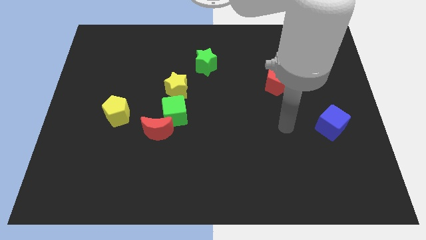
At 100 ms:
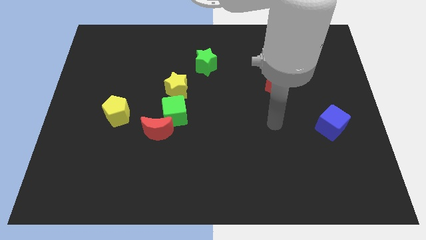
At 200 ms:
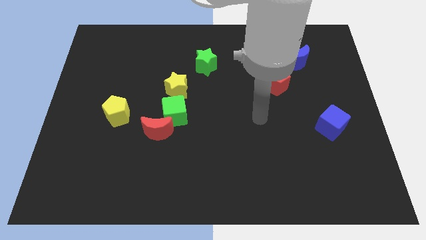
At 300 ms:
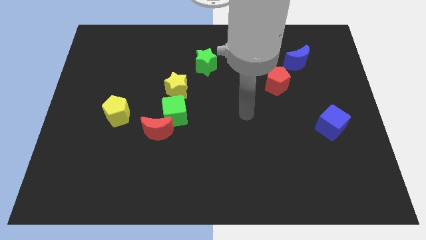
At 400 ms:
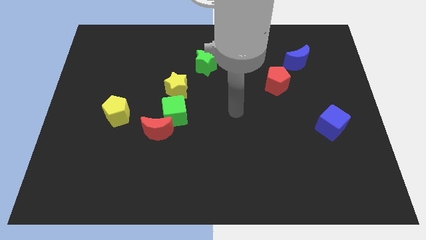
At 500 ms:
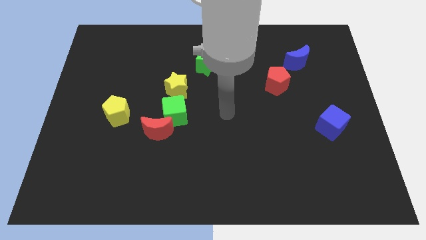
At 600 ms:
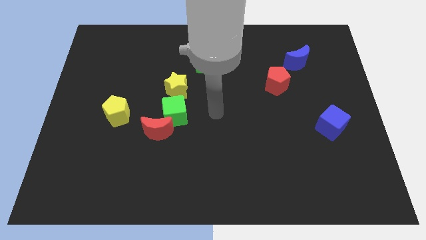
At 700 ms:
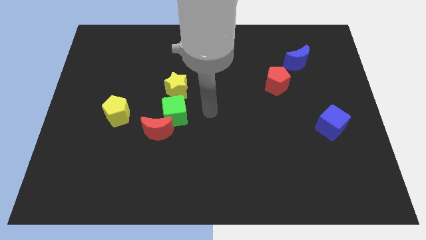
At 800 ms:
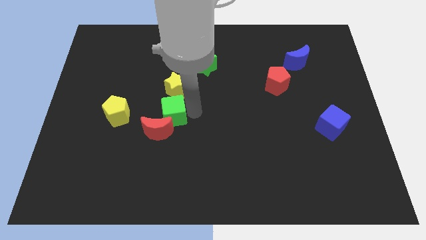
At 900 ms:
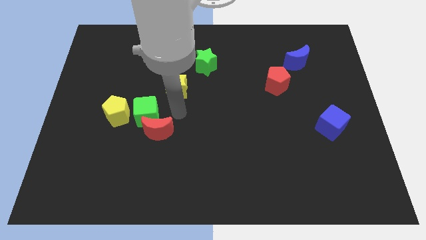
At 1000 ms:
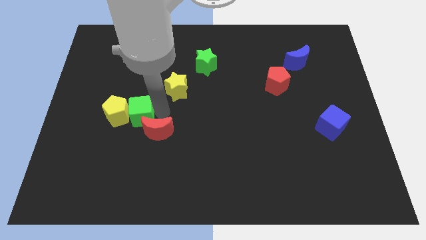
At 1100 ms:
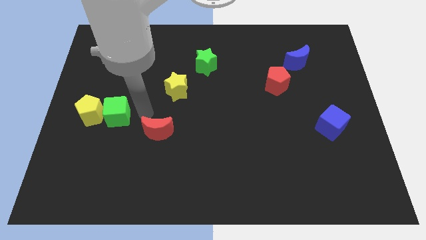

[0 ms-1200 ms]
pull the red moon apart from the green cube

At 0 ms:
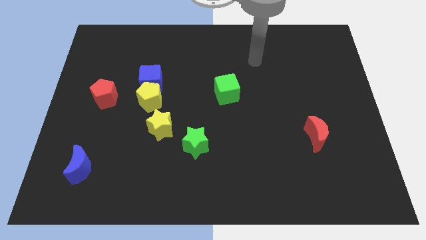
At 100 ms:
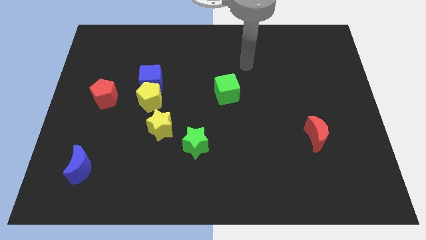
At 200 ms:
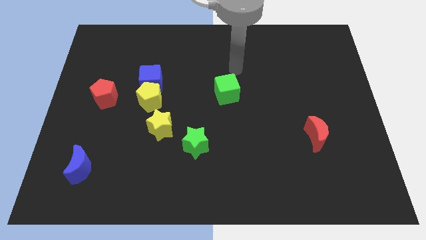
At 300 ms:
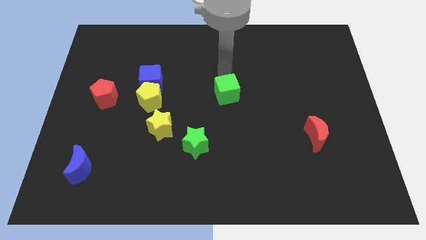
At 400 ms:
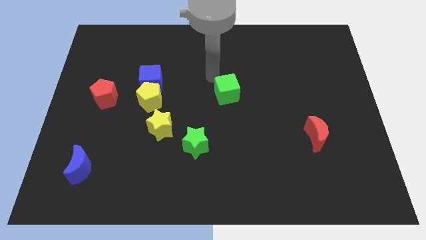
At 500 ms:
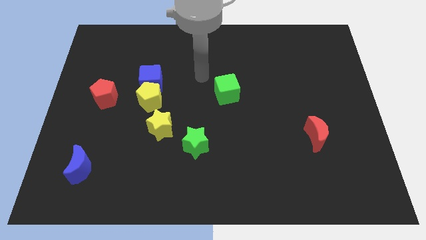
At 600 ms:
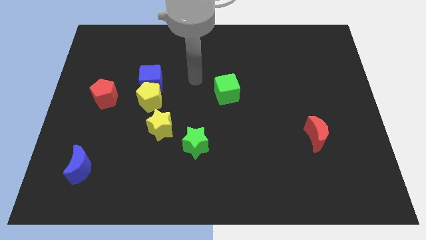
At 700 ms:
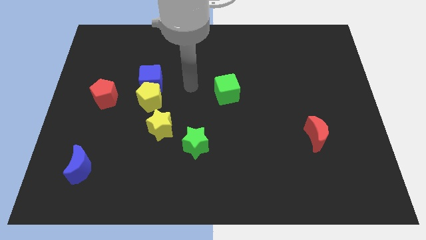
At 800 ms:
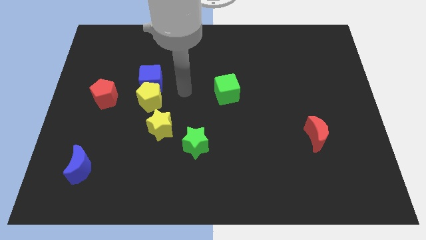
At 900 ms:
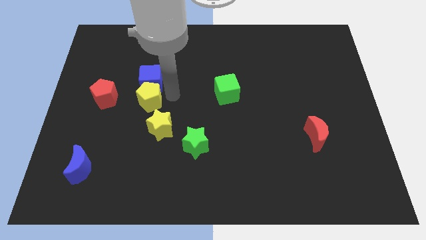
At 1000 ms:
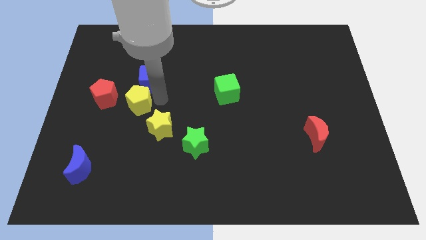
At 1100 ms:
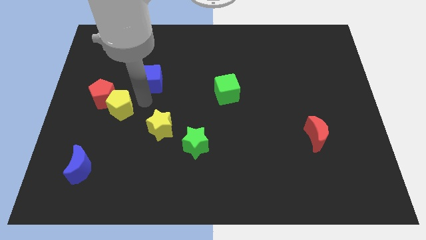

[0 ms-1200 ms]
separate the blue cube from the yellow pentagon

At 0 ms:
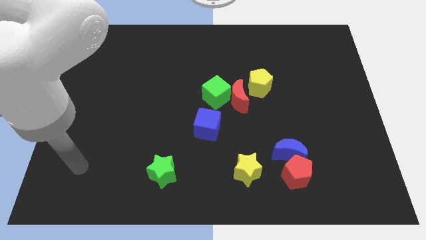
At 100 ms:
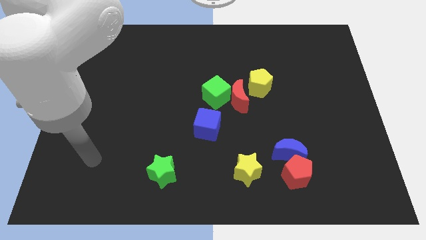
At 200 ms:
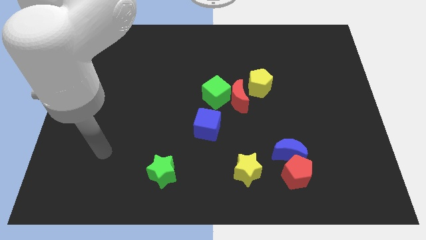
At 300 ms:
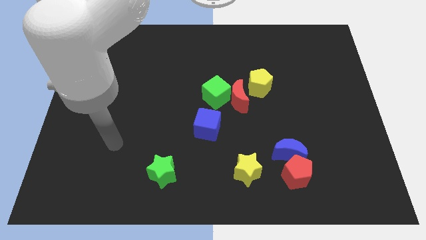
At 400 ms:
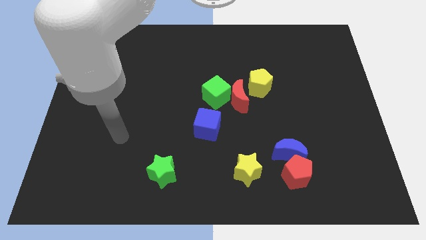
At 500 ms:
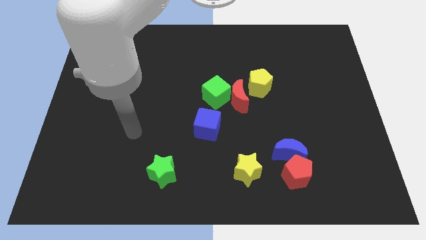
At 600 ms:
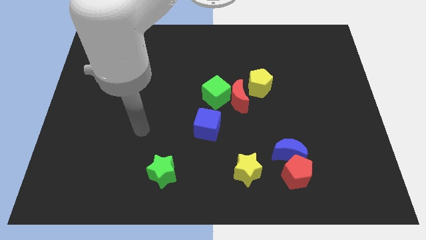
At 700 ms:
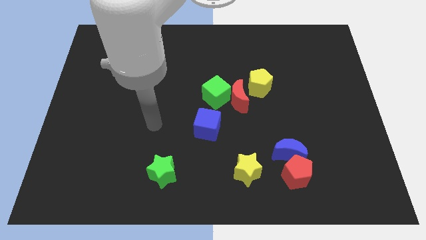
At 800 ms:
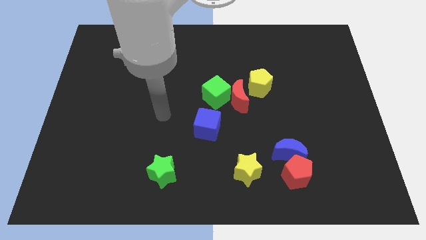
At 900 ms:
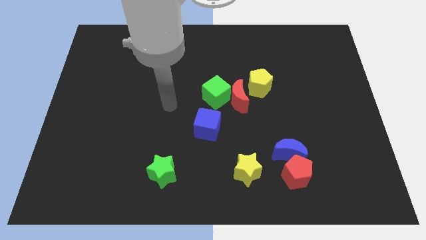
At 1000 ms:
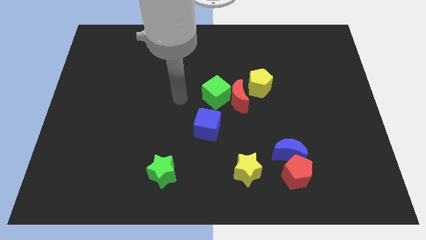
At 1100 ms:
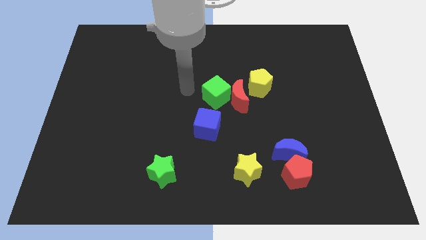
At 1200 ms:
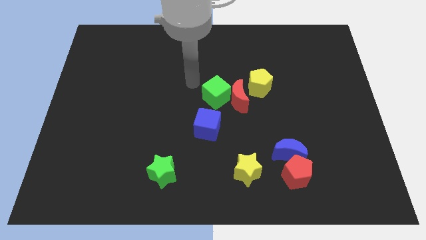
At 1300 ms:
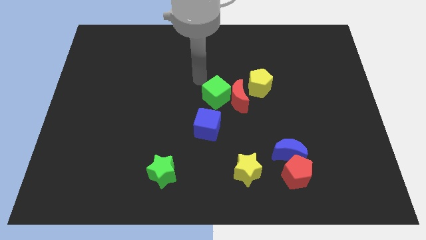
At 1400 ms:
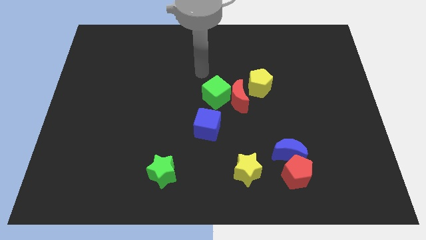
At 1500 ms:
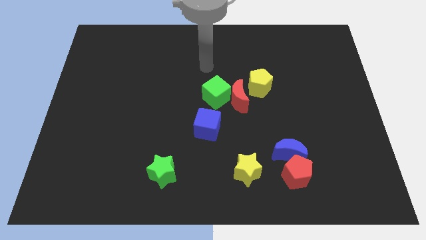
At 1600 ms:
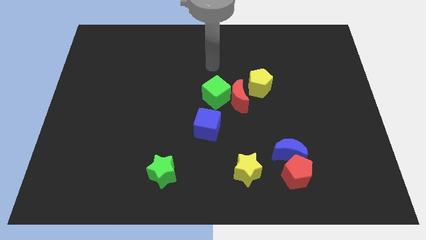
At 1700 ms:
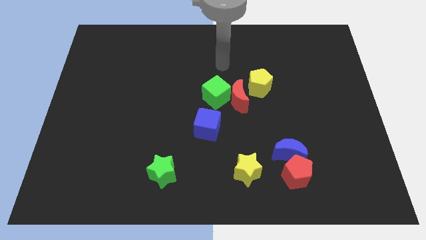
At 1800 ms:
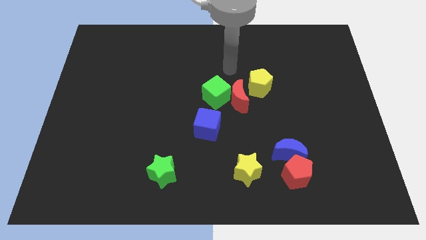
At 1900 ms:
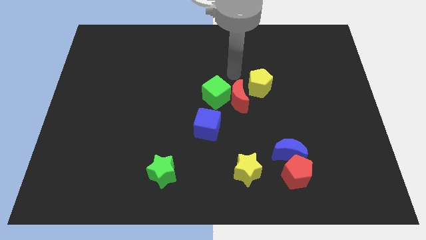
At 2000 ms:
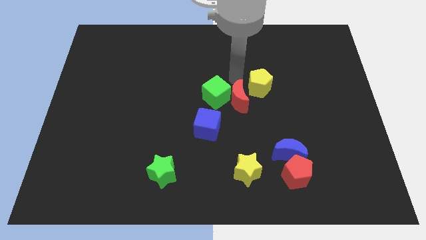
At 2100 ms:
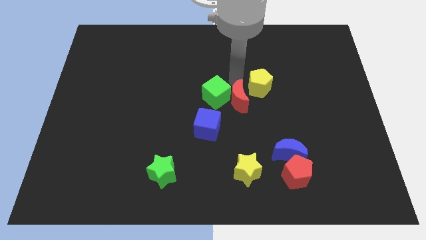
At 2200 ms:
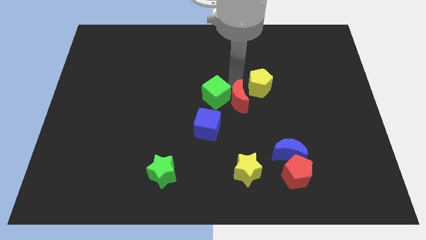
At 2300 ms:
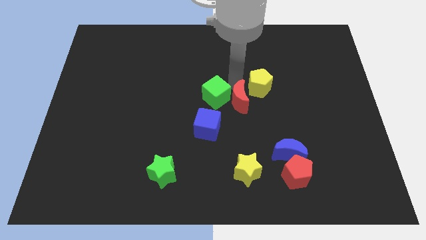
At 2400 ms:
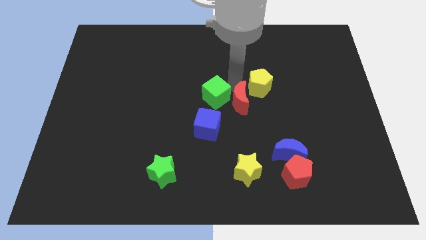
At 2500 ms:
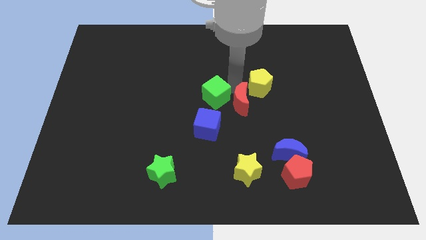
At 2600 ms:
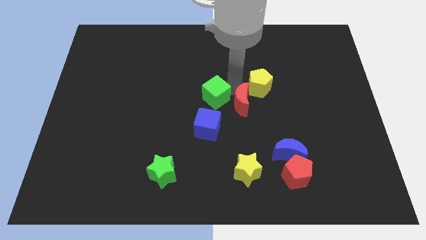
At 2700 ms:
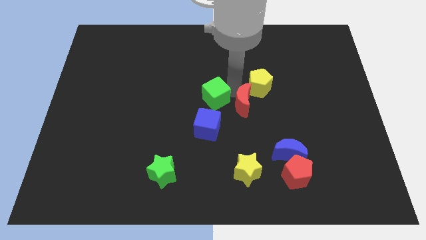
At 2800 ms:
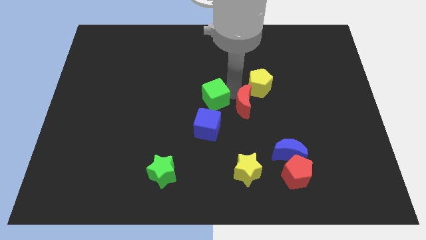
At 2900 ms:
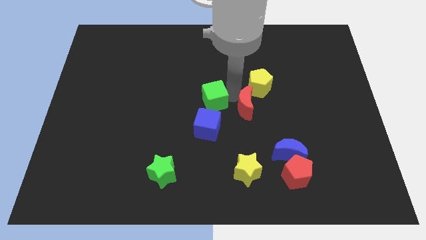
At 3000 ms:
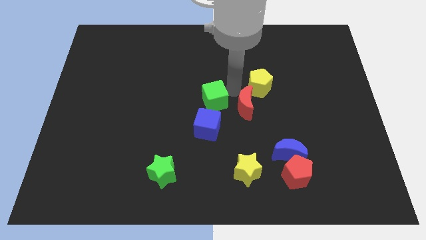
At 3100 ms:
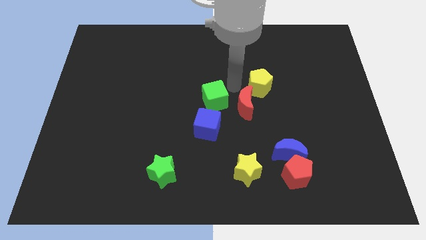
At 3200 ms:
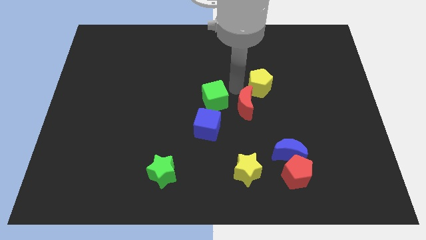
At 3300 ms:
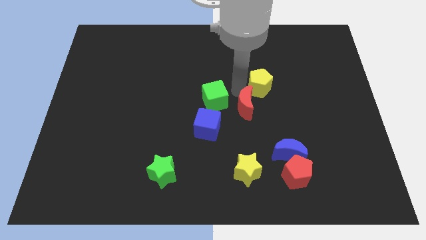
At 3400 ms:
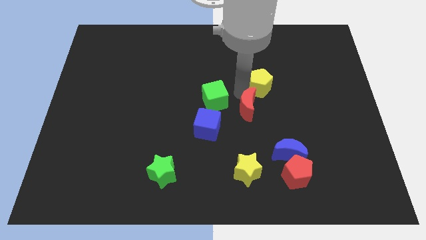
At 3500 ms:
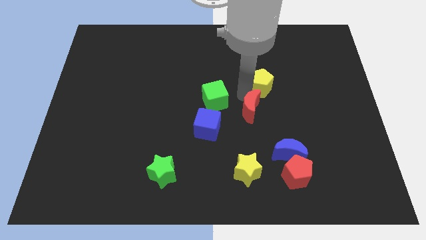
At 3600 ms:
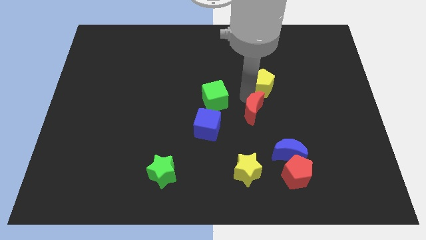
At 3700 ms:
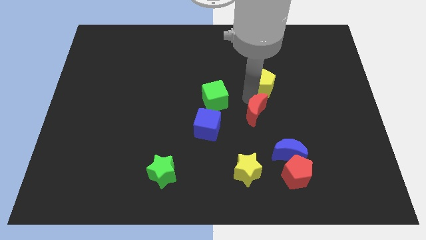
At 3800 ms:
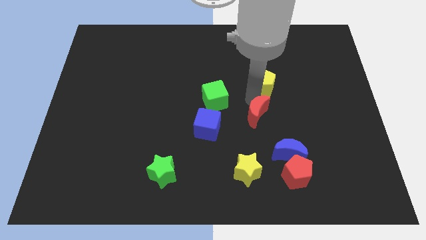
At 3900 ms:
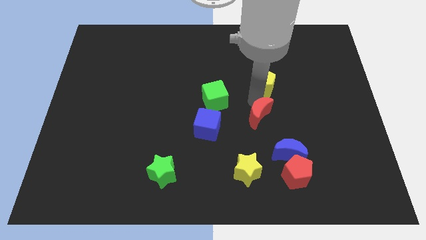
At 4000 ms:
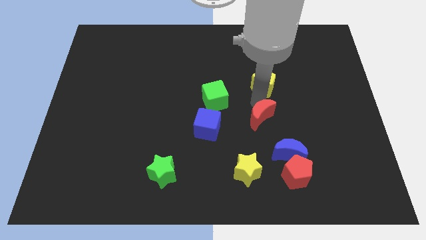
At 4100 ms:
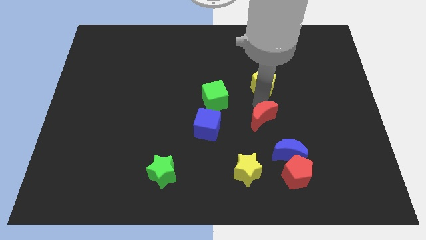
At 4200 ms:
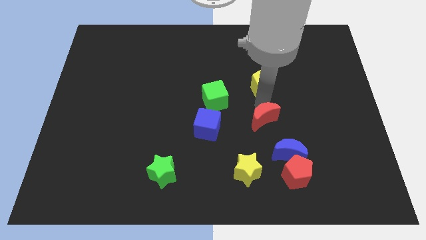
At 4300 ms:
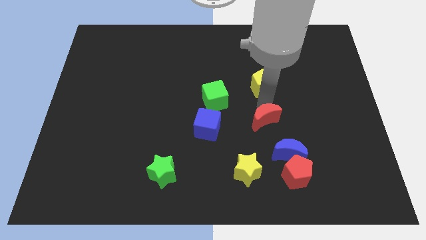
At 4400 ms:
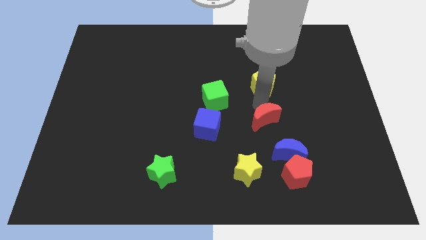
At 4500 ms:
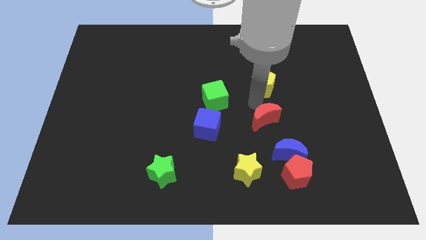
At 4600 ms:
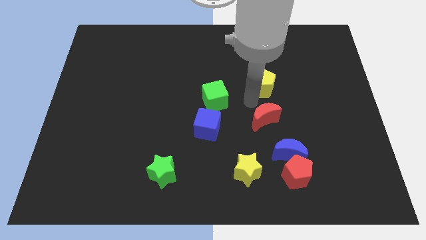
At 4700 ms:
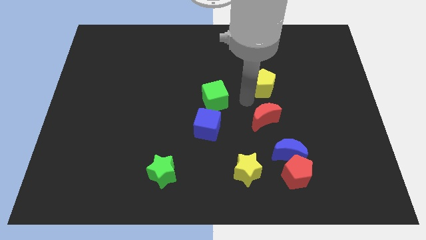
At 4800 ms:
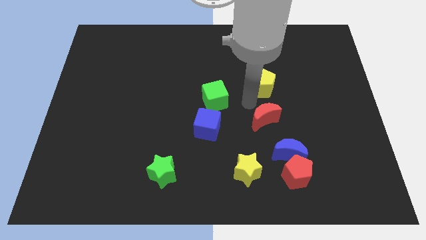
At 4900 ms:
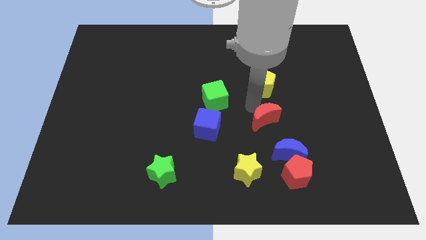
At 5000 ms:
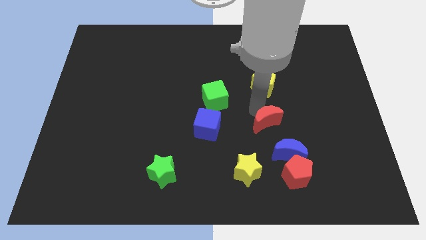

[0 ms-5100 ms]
pull the red moon apart from the green cube and yellow pentagon

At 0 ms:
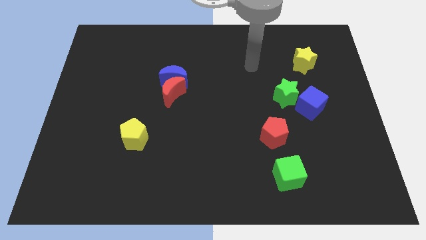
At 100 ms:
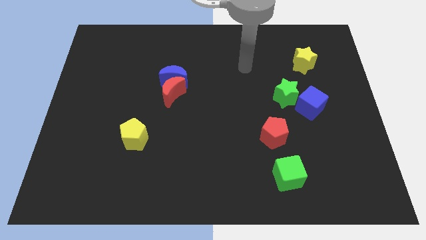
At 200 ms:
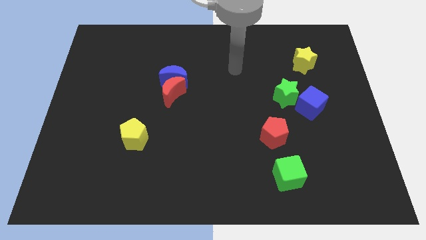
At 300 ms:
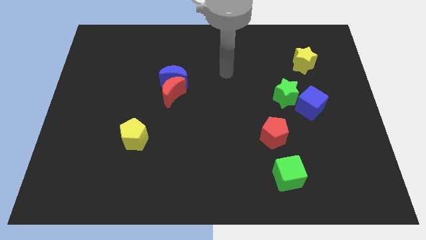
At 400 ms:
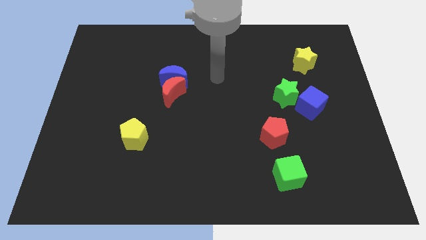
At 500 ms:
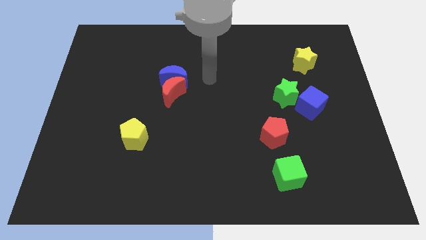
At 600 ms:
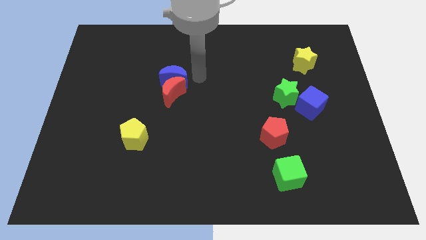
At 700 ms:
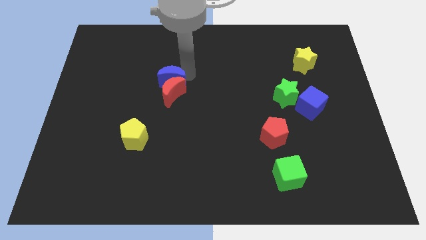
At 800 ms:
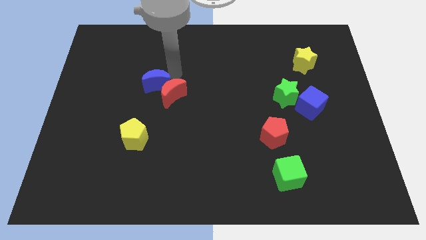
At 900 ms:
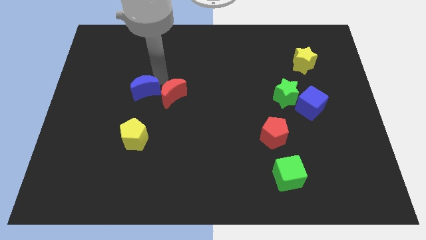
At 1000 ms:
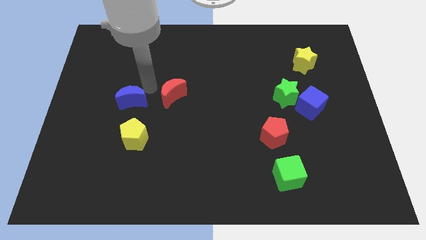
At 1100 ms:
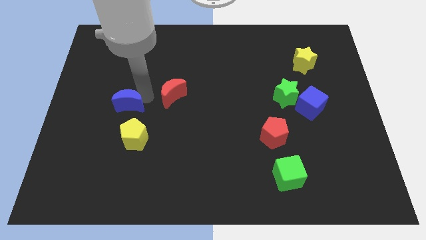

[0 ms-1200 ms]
separate the red moon from the blue moon

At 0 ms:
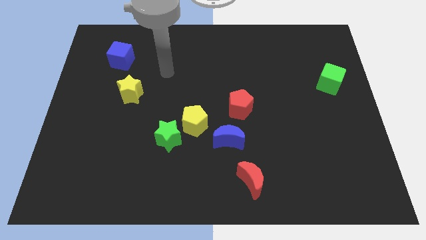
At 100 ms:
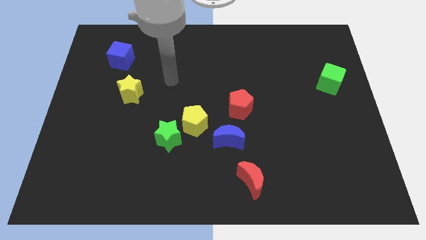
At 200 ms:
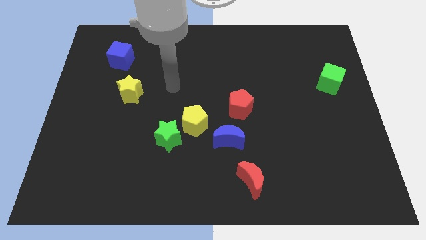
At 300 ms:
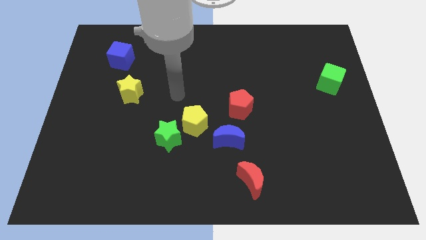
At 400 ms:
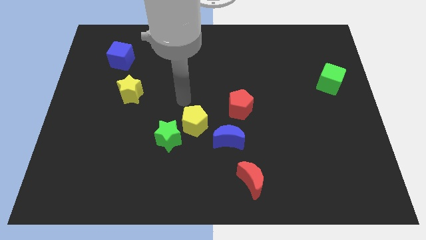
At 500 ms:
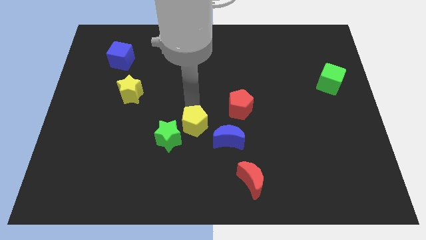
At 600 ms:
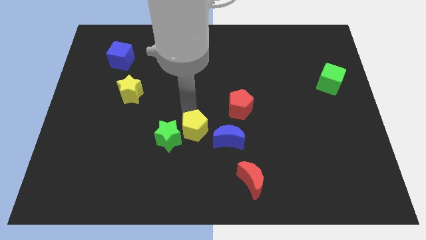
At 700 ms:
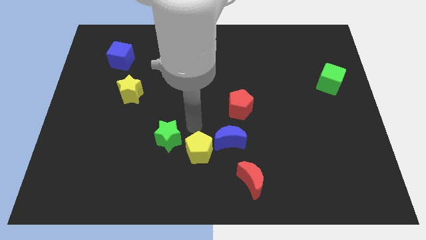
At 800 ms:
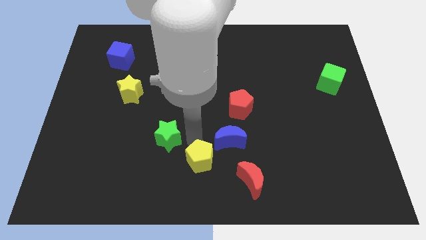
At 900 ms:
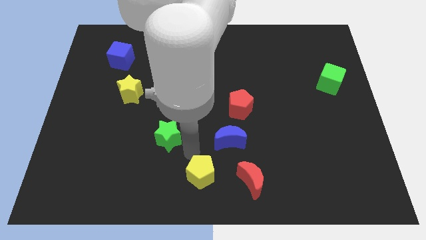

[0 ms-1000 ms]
pull the green star apart from the yellow pentagon
